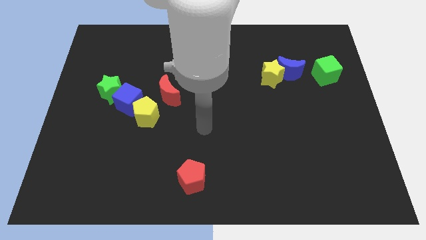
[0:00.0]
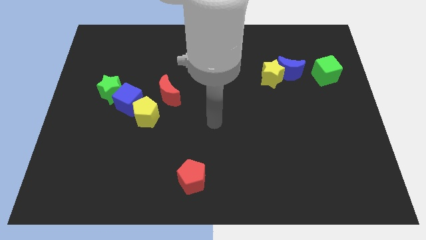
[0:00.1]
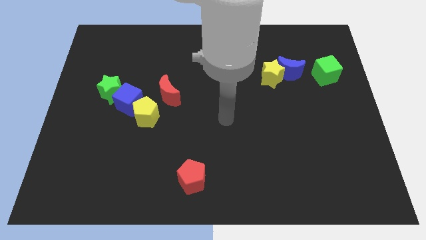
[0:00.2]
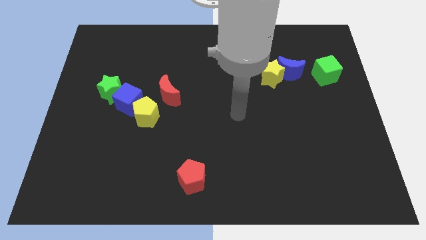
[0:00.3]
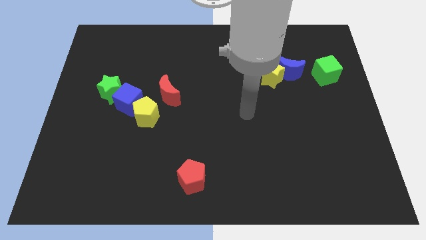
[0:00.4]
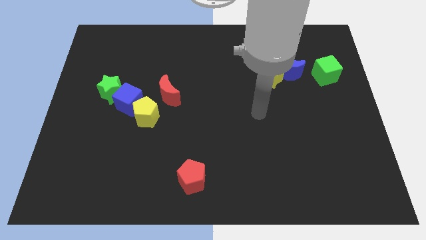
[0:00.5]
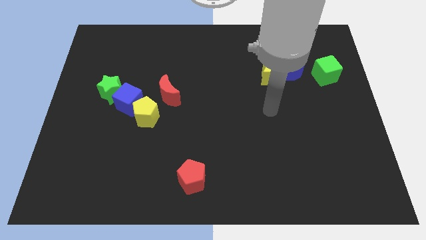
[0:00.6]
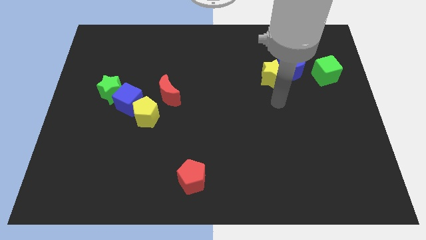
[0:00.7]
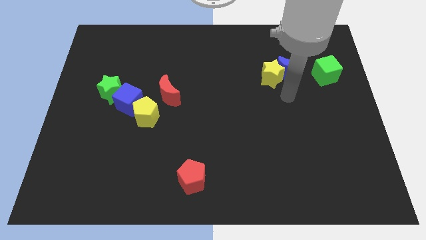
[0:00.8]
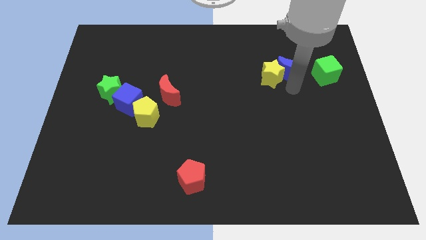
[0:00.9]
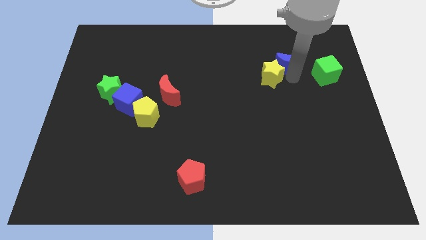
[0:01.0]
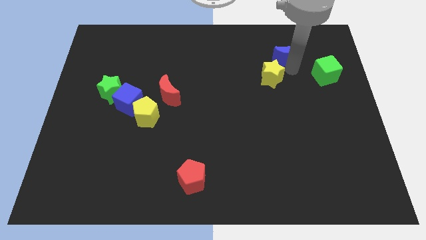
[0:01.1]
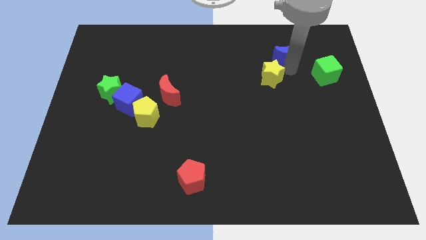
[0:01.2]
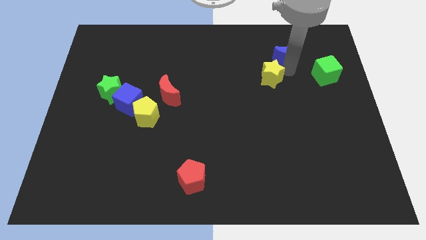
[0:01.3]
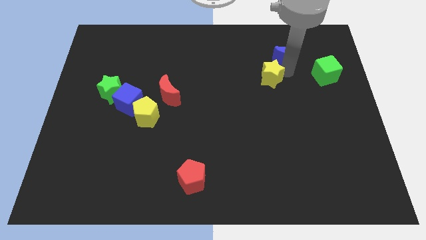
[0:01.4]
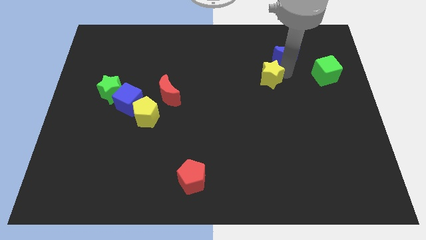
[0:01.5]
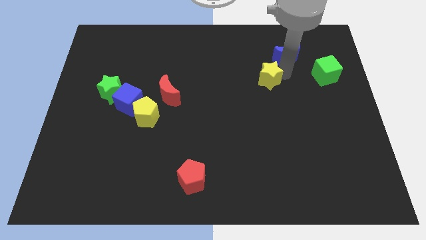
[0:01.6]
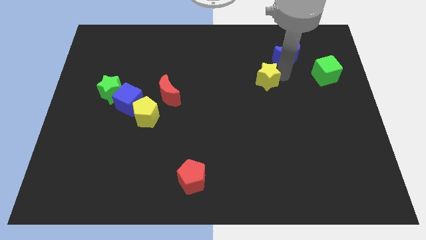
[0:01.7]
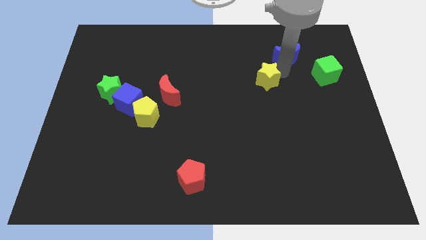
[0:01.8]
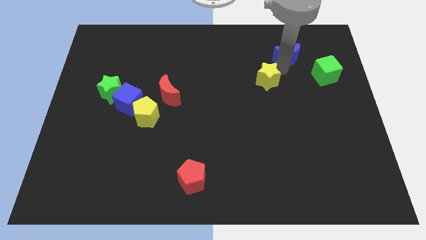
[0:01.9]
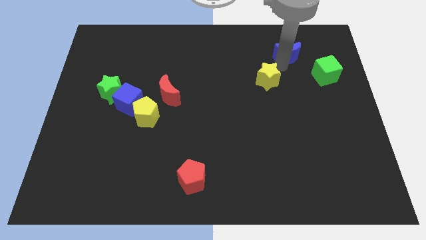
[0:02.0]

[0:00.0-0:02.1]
pull the yellow star apart from the blue moon

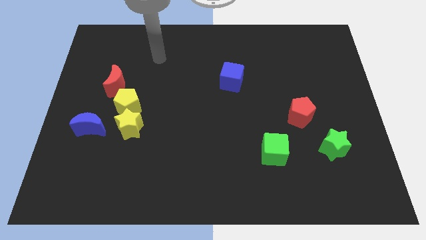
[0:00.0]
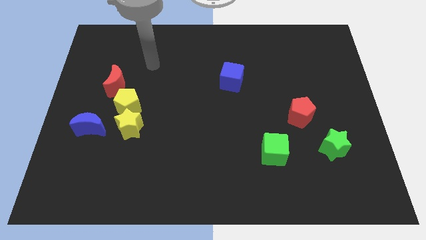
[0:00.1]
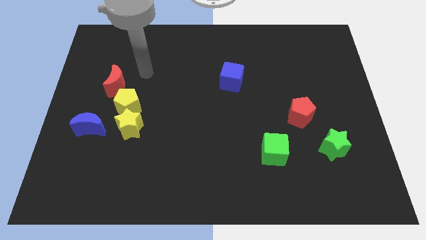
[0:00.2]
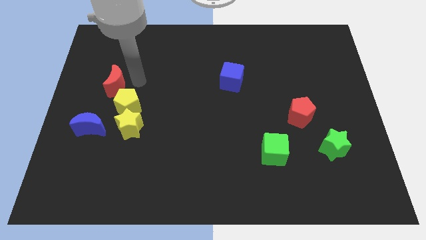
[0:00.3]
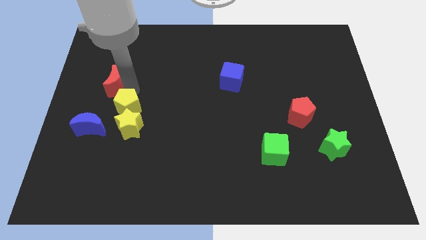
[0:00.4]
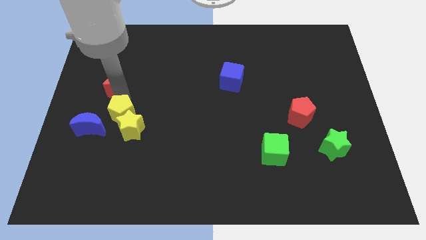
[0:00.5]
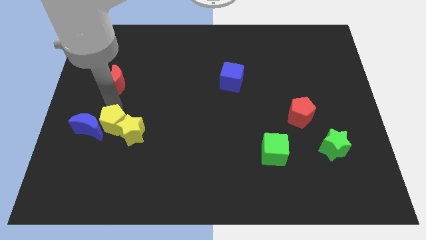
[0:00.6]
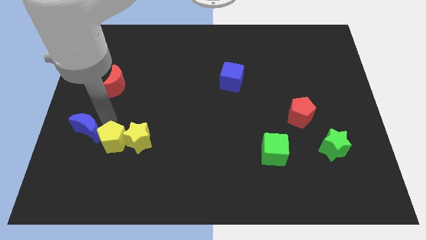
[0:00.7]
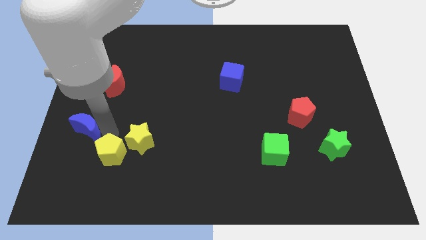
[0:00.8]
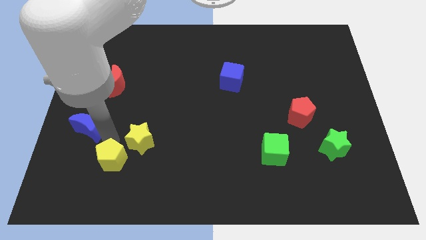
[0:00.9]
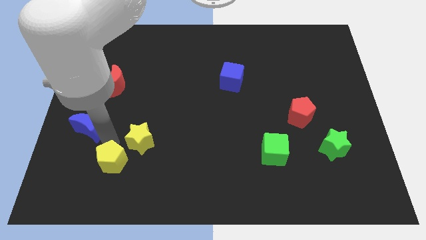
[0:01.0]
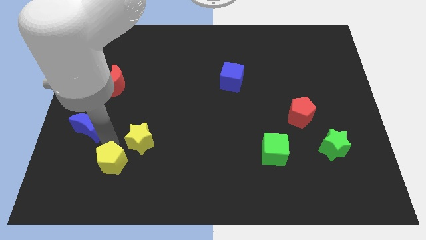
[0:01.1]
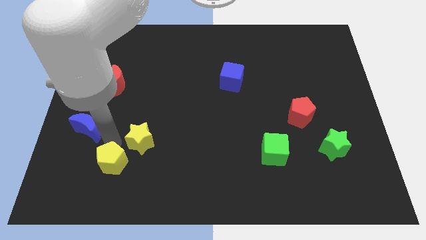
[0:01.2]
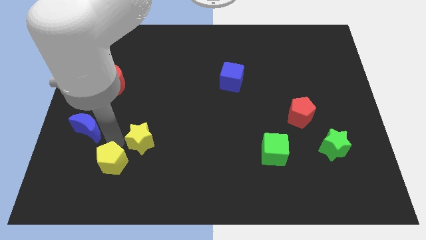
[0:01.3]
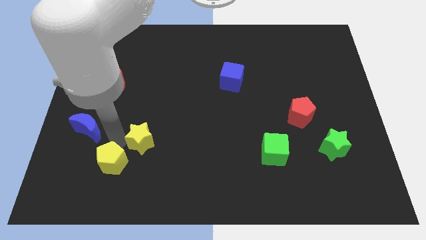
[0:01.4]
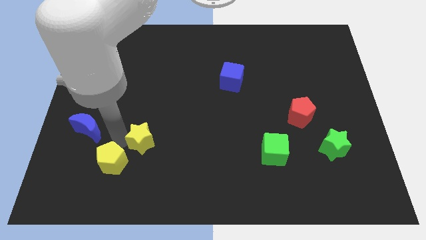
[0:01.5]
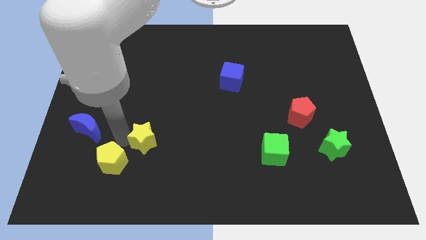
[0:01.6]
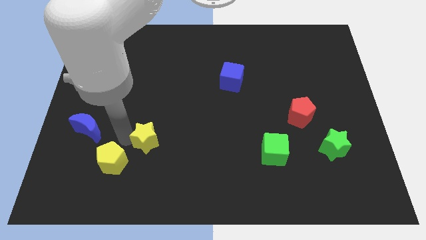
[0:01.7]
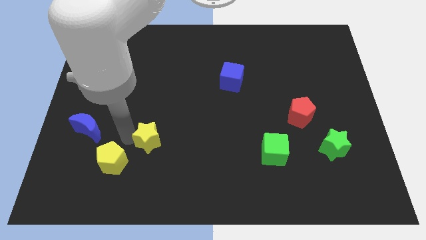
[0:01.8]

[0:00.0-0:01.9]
move the yellow star away from the yellow pentagon and blue moon

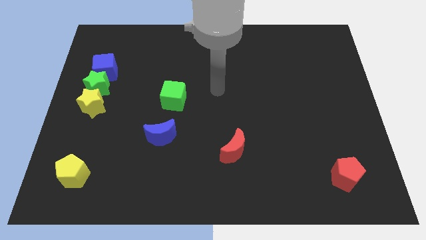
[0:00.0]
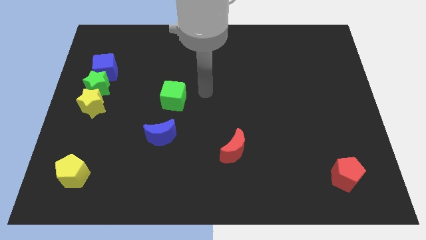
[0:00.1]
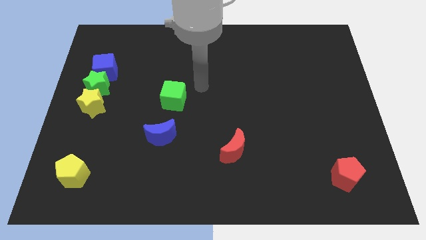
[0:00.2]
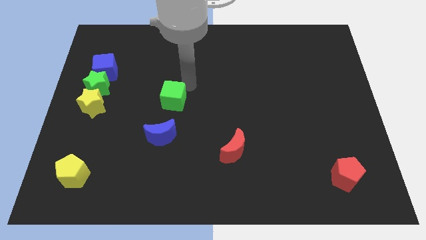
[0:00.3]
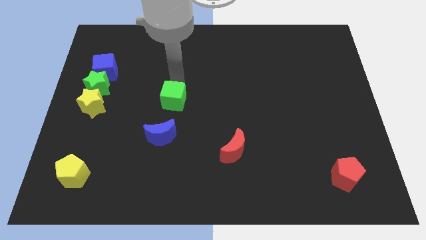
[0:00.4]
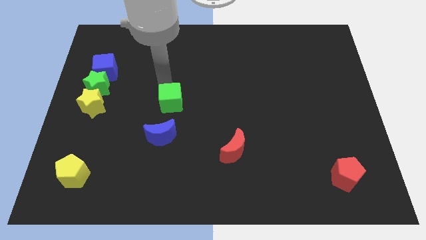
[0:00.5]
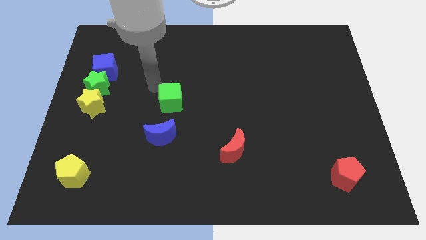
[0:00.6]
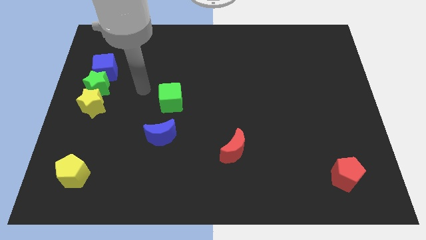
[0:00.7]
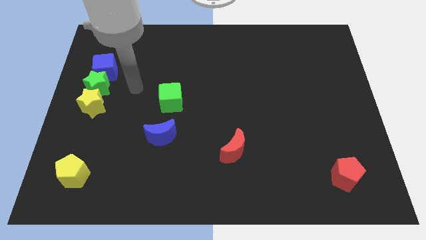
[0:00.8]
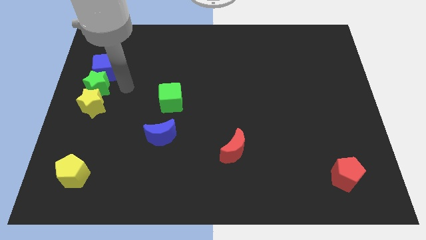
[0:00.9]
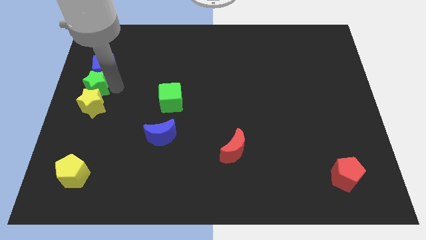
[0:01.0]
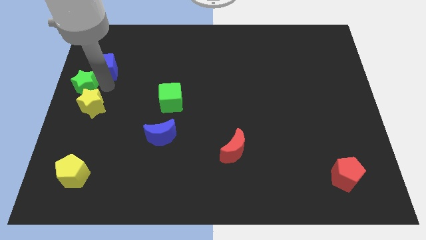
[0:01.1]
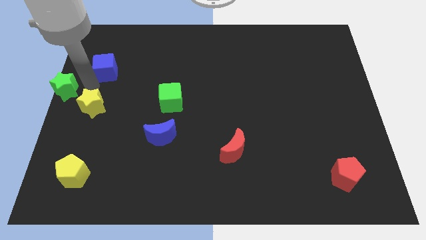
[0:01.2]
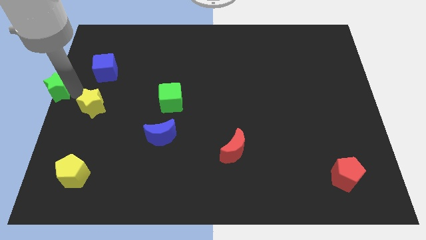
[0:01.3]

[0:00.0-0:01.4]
separate the yellow star from the green star

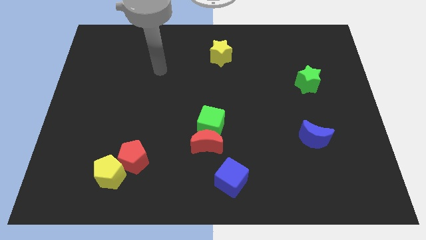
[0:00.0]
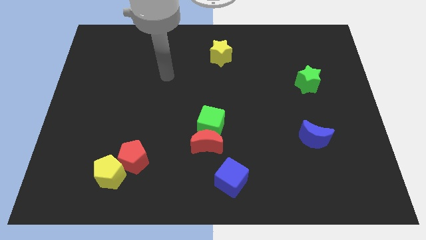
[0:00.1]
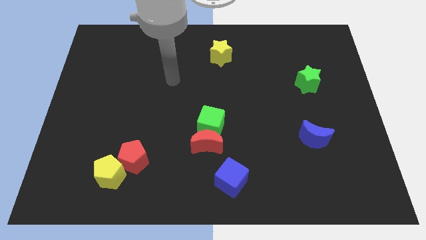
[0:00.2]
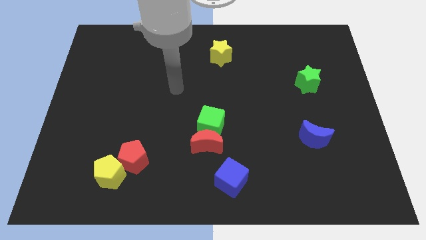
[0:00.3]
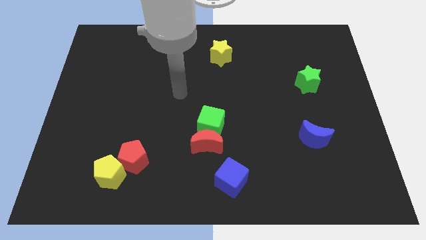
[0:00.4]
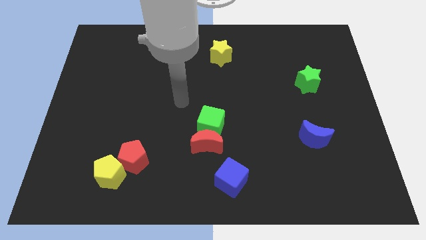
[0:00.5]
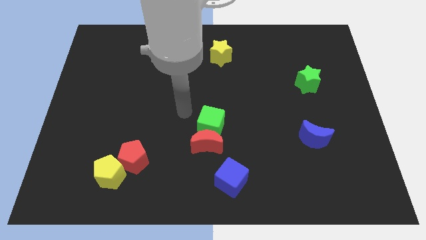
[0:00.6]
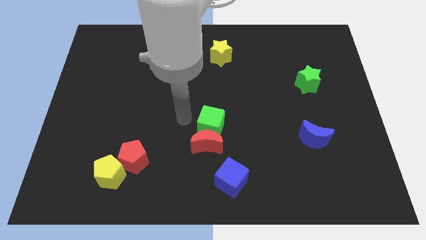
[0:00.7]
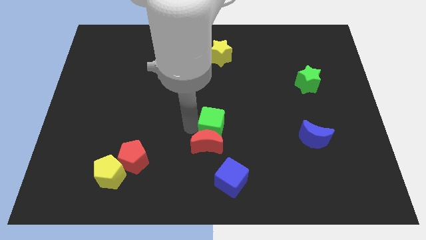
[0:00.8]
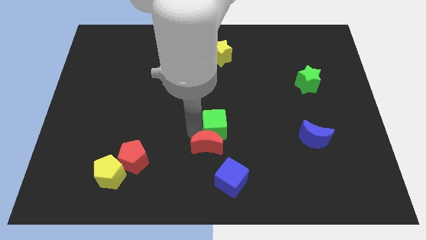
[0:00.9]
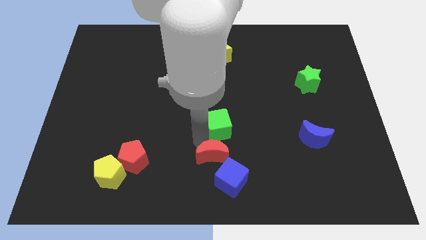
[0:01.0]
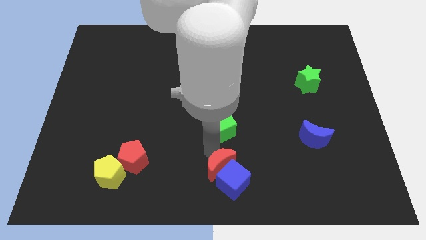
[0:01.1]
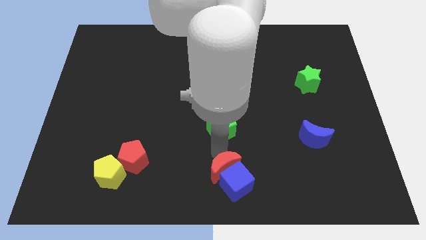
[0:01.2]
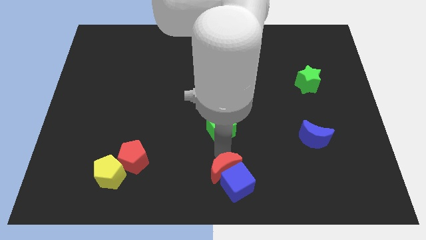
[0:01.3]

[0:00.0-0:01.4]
separate the green cube from the red moon

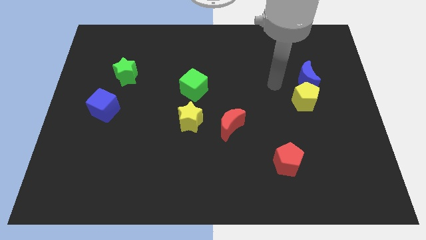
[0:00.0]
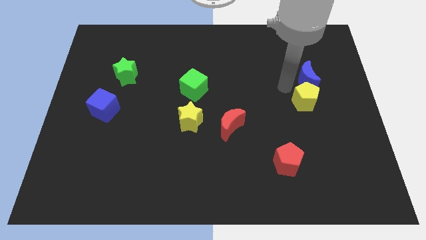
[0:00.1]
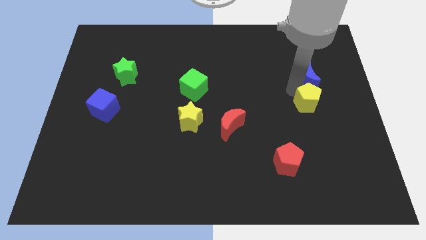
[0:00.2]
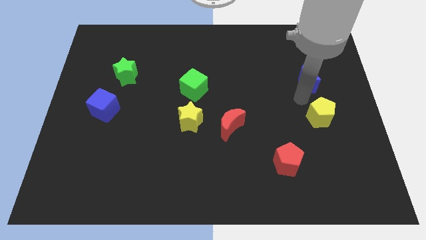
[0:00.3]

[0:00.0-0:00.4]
move the blue moon away from the yellow pentagon

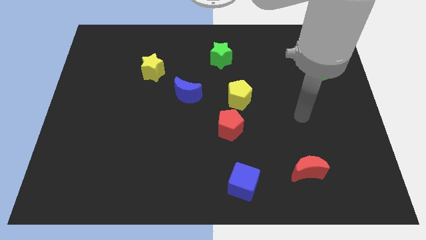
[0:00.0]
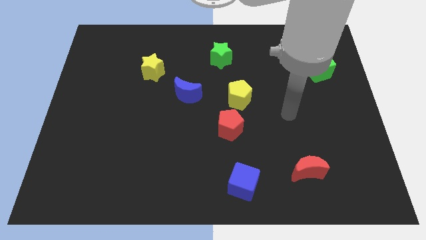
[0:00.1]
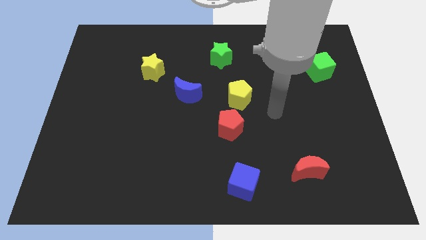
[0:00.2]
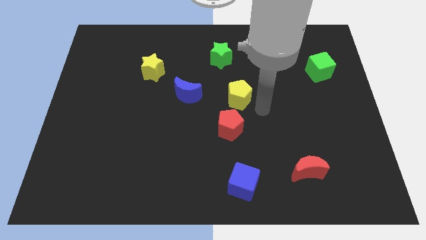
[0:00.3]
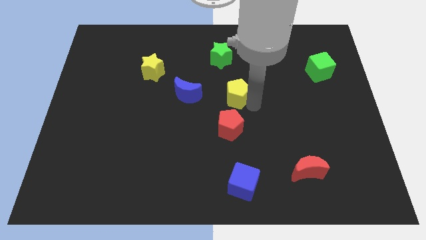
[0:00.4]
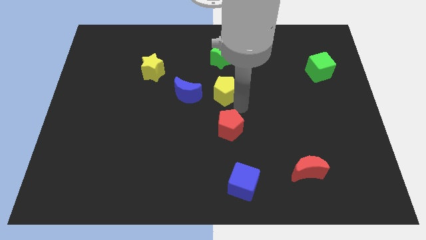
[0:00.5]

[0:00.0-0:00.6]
move the red pentagon away from the yellow pentagon

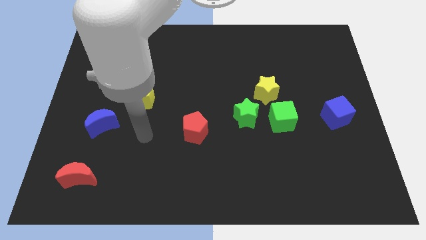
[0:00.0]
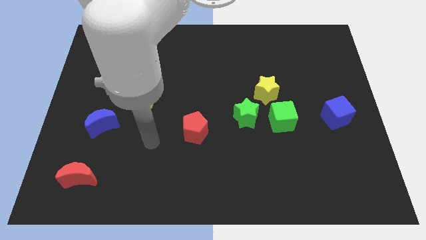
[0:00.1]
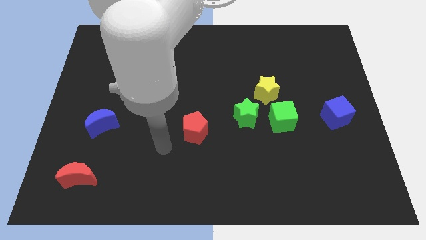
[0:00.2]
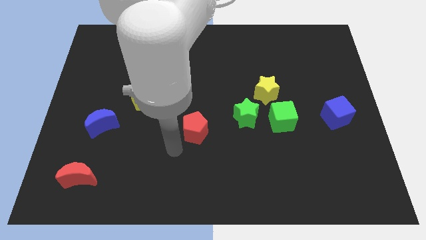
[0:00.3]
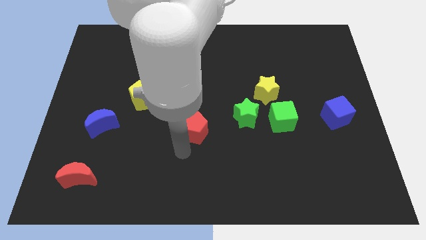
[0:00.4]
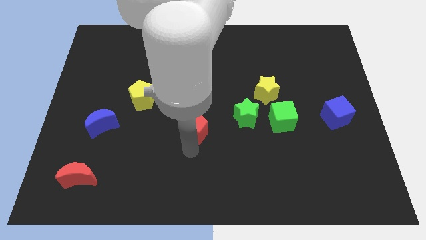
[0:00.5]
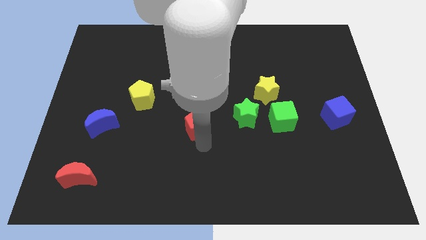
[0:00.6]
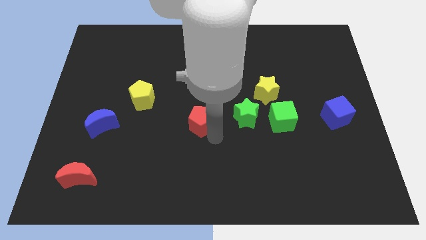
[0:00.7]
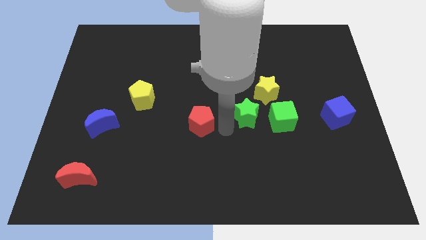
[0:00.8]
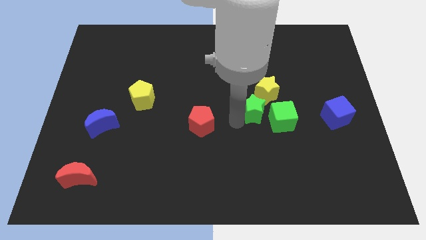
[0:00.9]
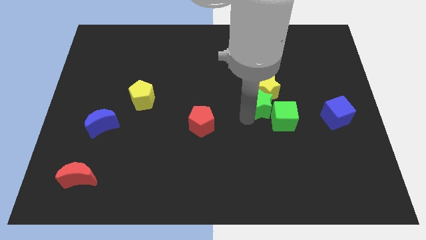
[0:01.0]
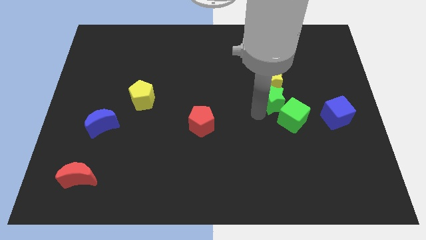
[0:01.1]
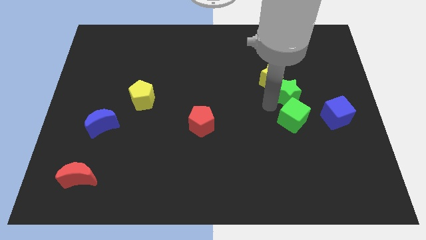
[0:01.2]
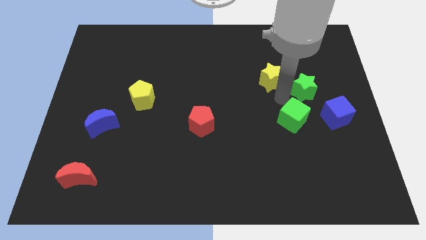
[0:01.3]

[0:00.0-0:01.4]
separate the green cube from the green star and yellow star

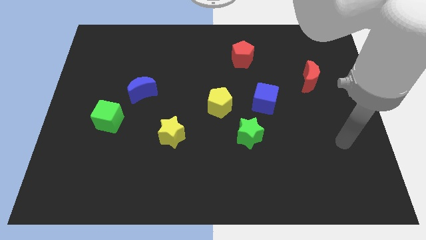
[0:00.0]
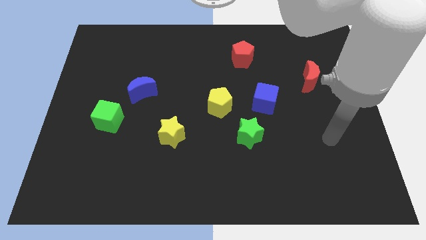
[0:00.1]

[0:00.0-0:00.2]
separate the blue cube from the green star
